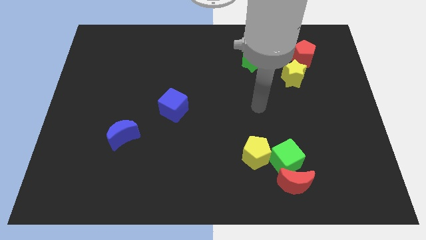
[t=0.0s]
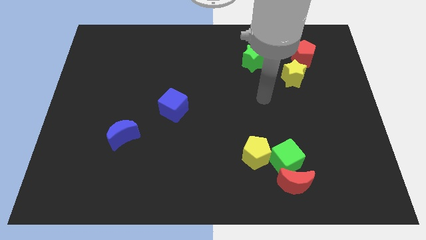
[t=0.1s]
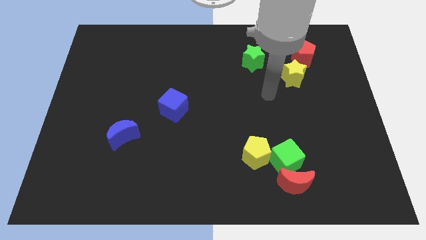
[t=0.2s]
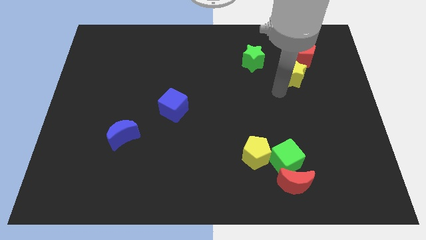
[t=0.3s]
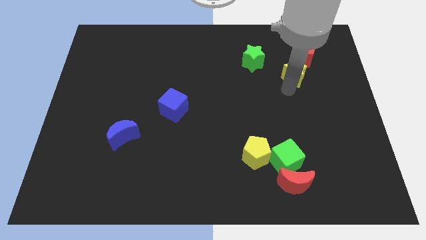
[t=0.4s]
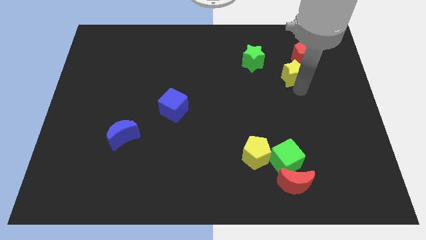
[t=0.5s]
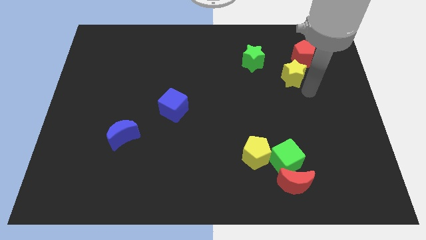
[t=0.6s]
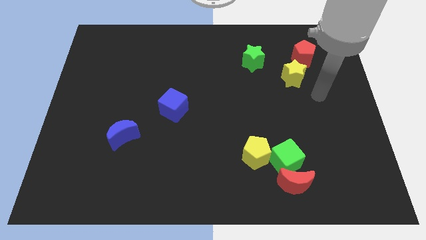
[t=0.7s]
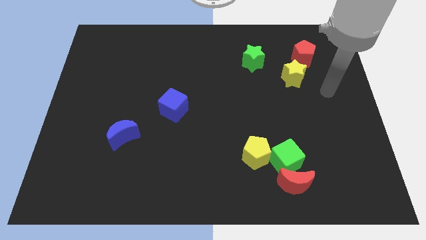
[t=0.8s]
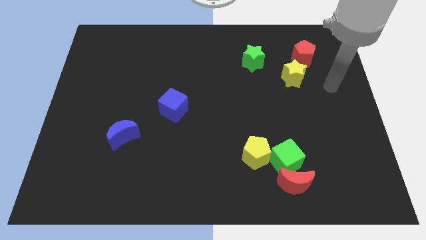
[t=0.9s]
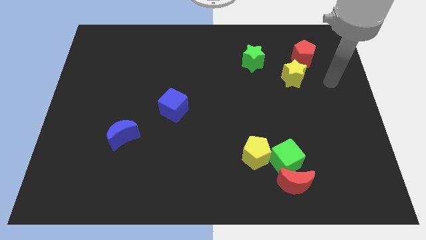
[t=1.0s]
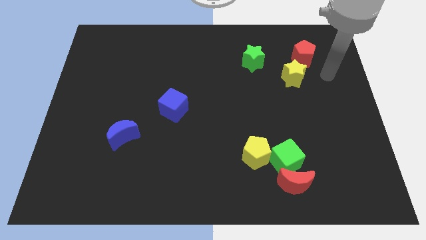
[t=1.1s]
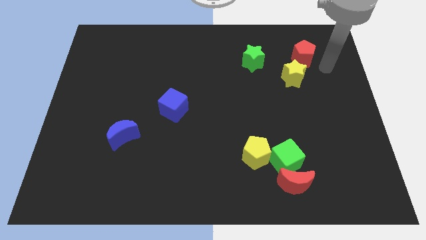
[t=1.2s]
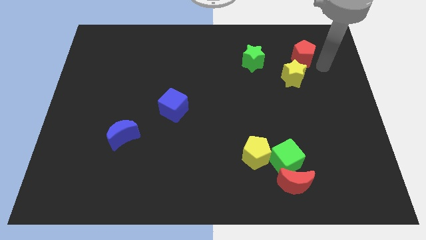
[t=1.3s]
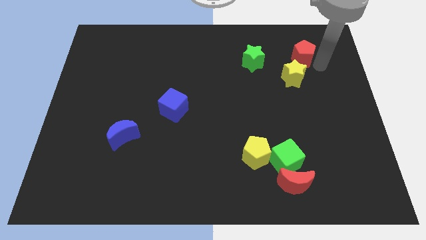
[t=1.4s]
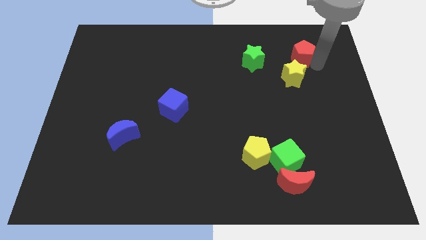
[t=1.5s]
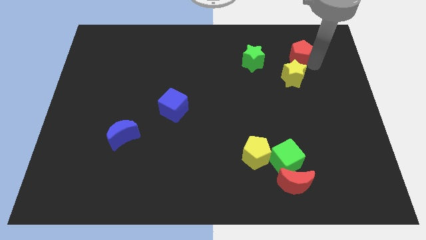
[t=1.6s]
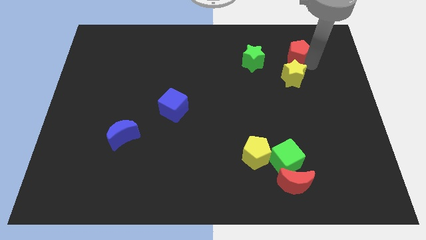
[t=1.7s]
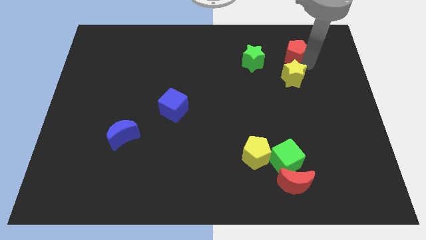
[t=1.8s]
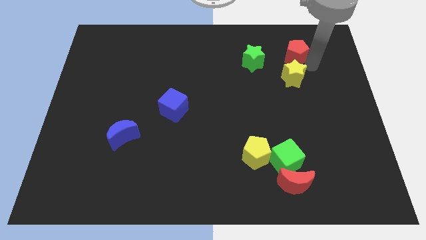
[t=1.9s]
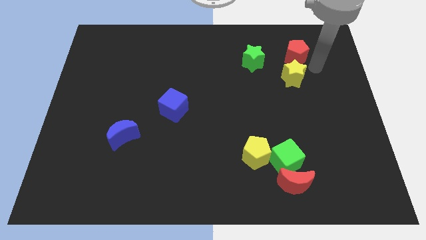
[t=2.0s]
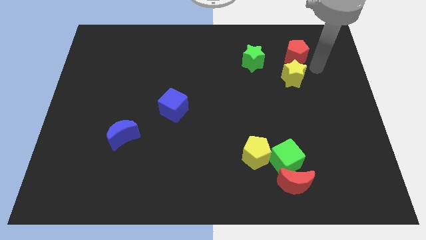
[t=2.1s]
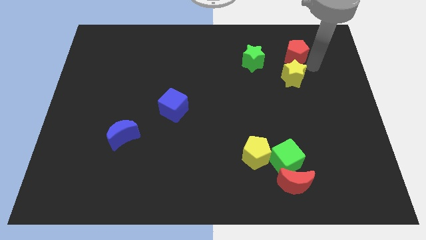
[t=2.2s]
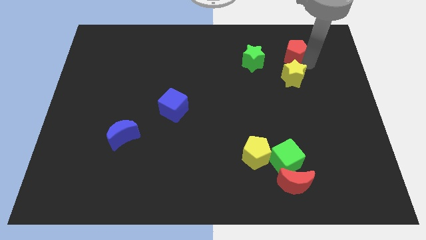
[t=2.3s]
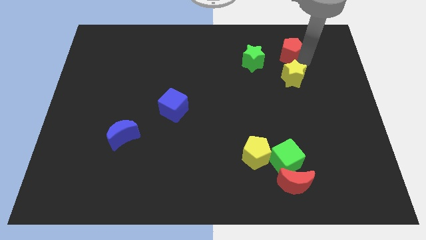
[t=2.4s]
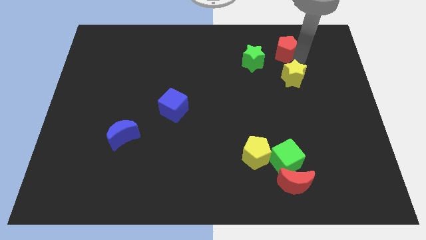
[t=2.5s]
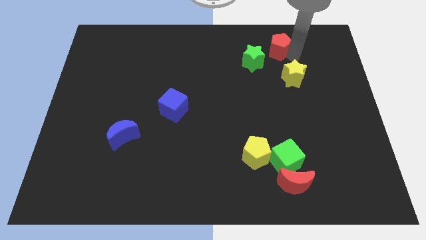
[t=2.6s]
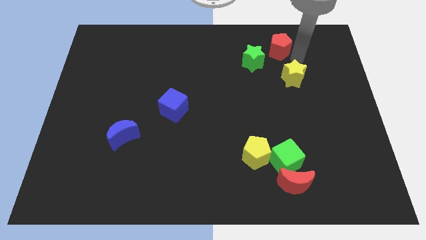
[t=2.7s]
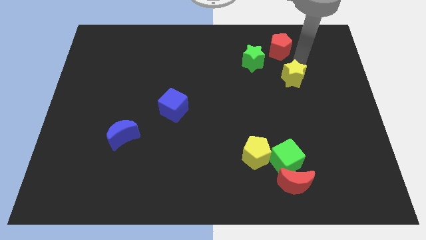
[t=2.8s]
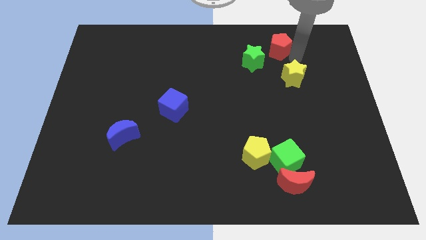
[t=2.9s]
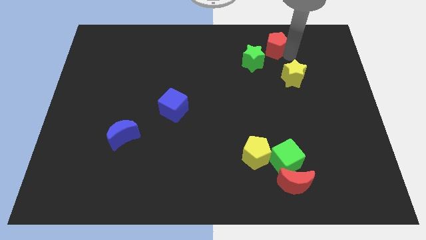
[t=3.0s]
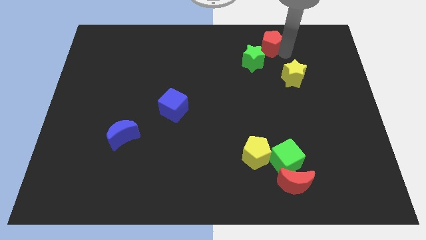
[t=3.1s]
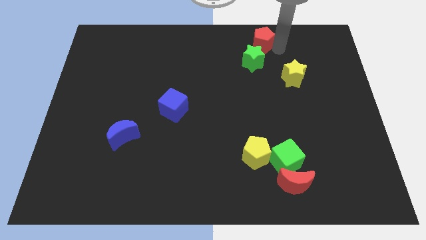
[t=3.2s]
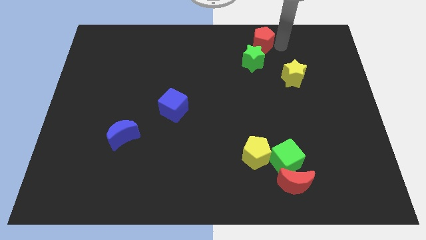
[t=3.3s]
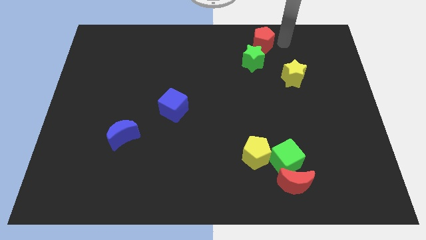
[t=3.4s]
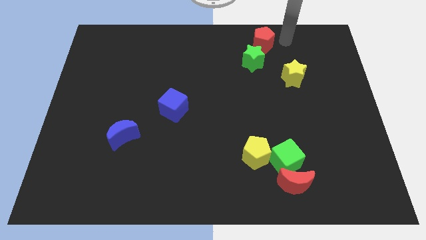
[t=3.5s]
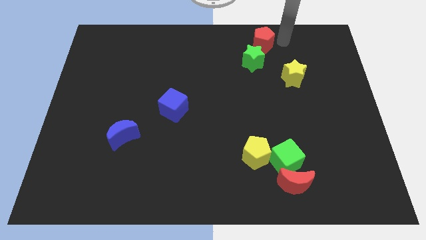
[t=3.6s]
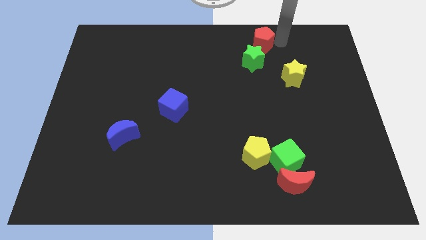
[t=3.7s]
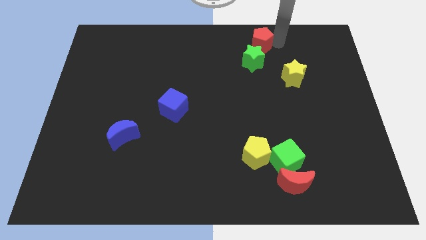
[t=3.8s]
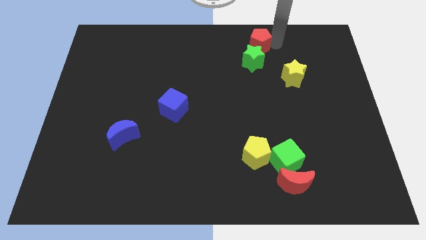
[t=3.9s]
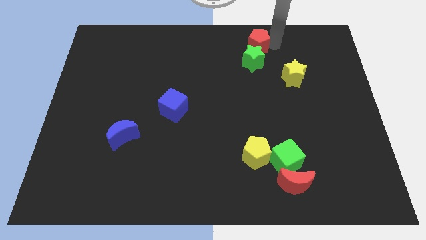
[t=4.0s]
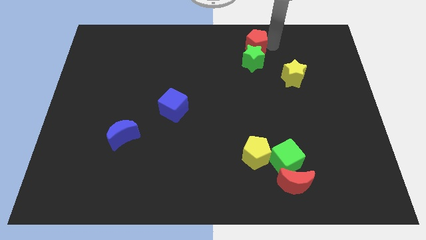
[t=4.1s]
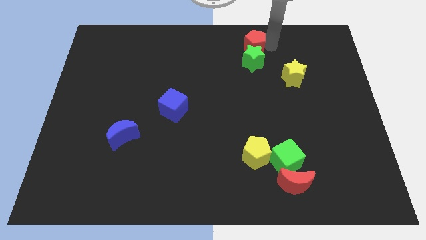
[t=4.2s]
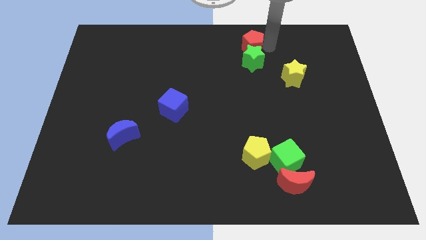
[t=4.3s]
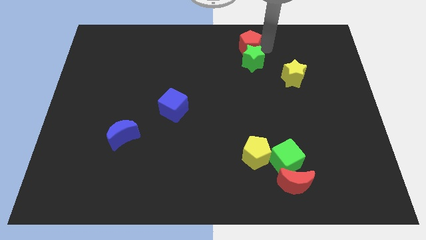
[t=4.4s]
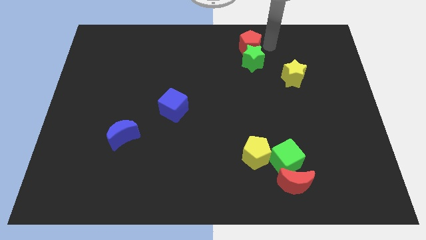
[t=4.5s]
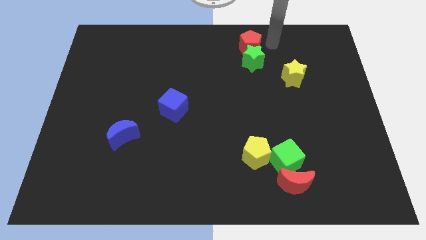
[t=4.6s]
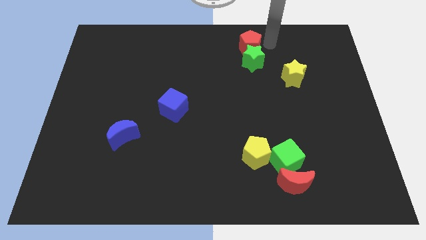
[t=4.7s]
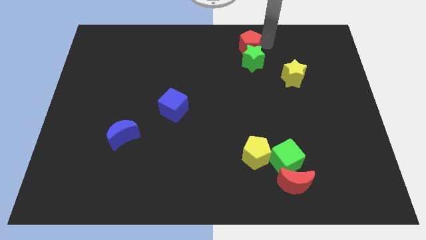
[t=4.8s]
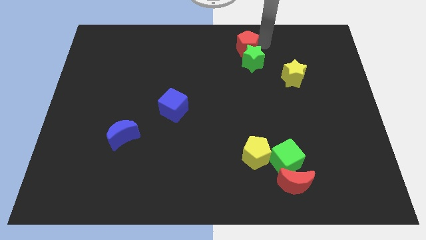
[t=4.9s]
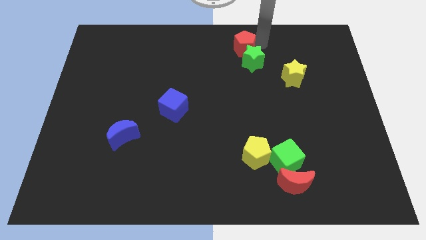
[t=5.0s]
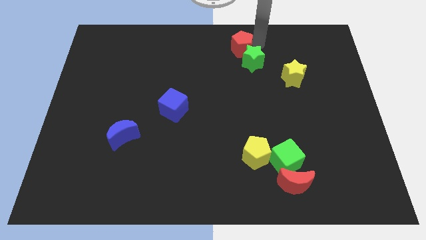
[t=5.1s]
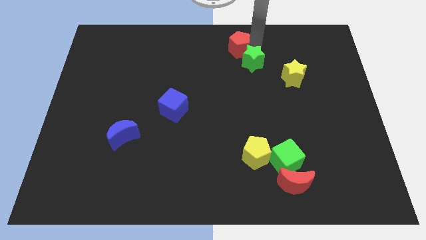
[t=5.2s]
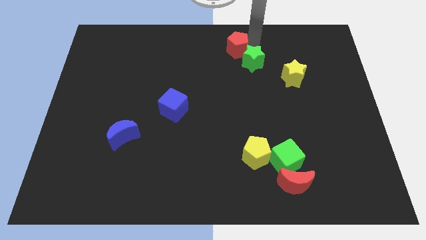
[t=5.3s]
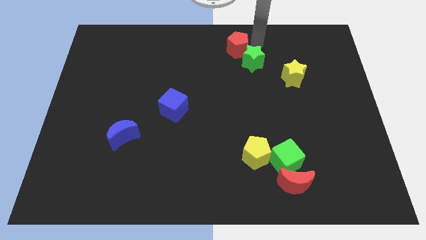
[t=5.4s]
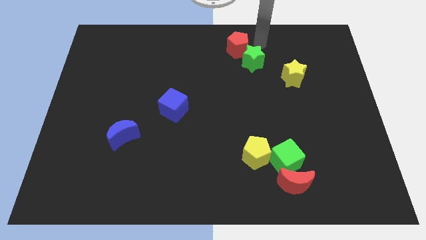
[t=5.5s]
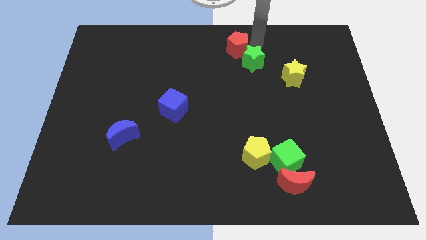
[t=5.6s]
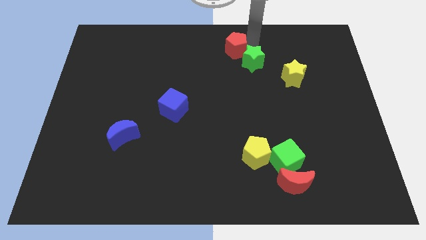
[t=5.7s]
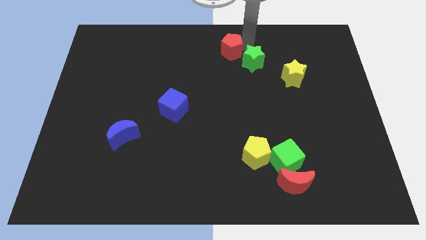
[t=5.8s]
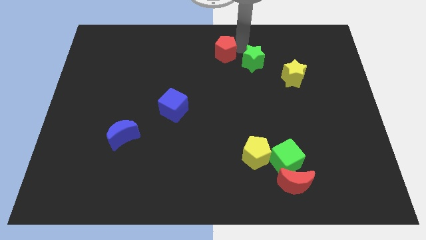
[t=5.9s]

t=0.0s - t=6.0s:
push the red pentagon left

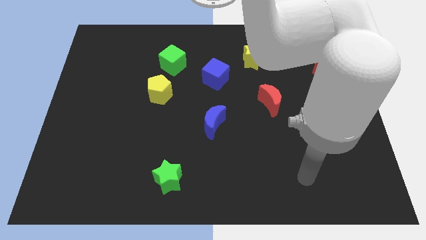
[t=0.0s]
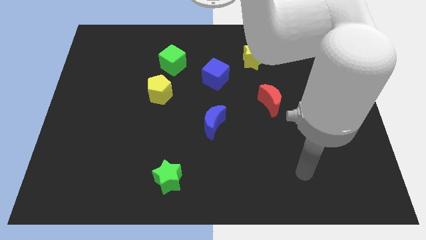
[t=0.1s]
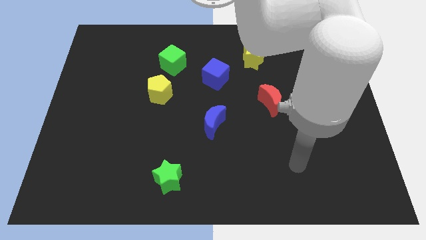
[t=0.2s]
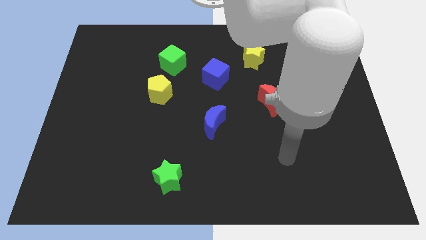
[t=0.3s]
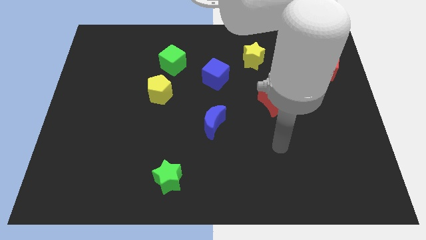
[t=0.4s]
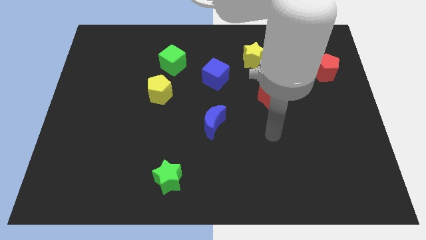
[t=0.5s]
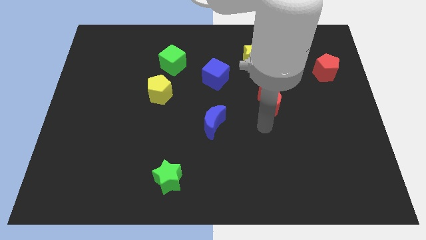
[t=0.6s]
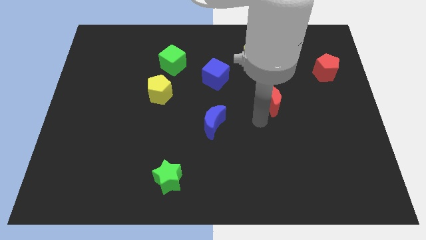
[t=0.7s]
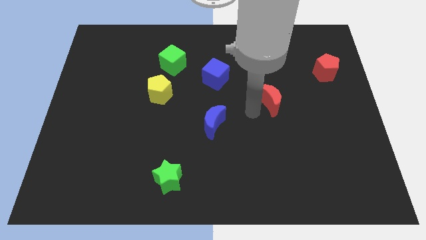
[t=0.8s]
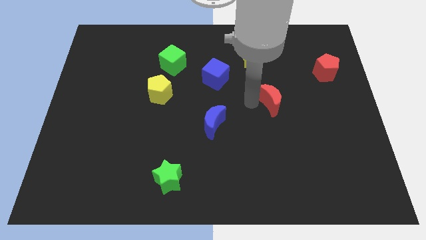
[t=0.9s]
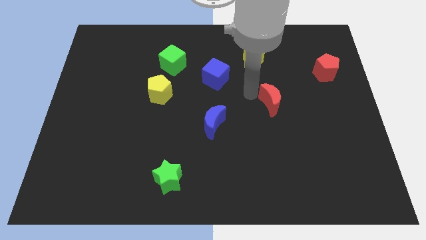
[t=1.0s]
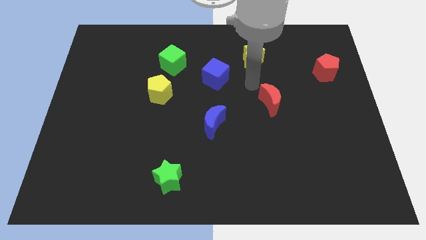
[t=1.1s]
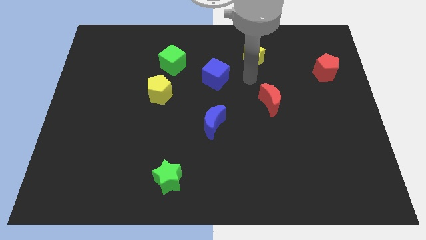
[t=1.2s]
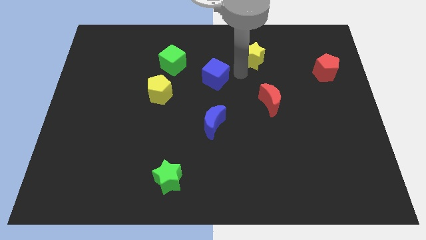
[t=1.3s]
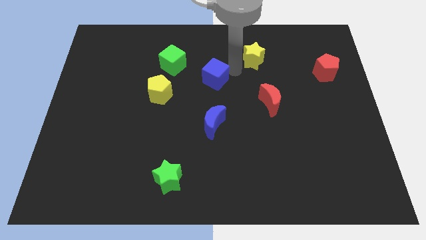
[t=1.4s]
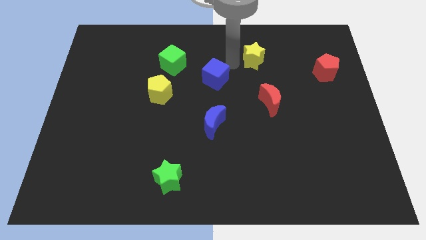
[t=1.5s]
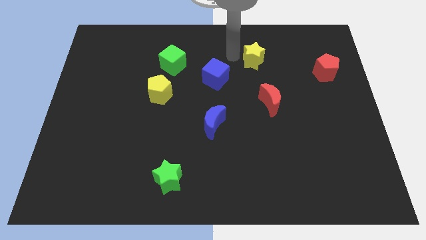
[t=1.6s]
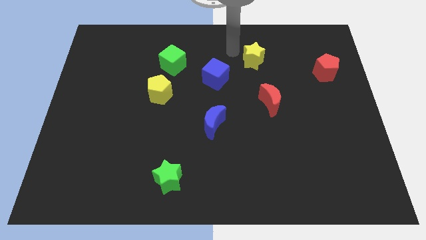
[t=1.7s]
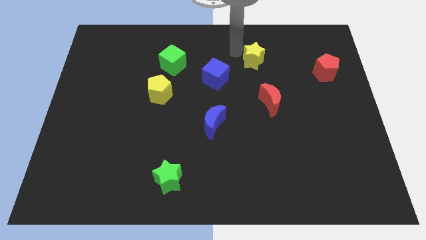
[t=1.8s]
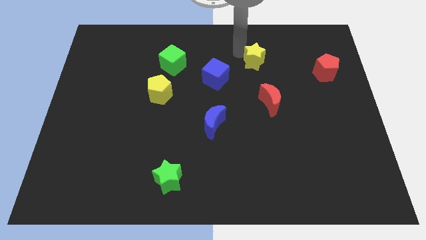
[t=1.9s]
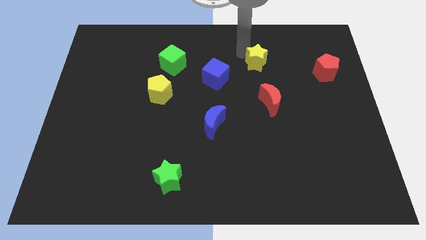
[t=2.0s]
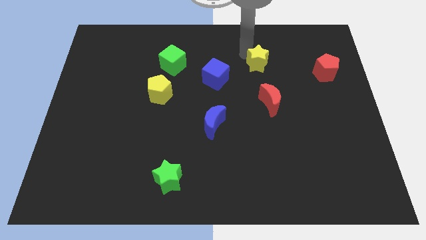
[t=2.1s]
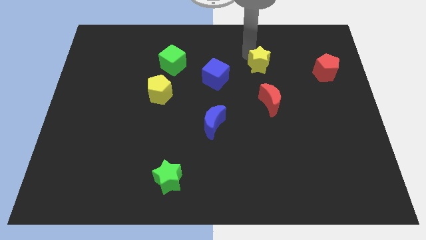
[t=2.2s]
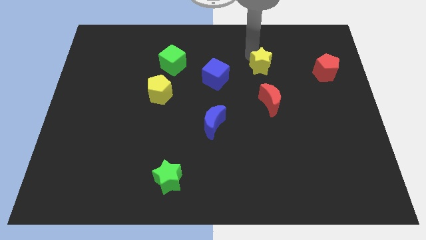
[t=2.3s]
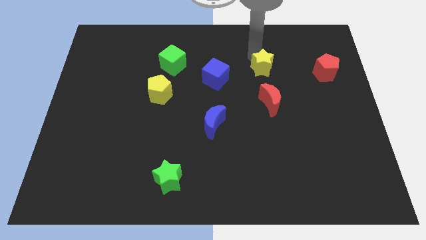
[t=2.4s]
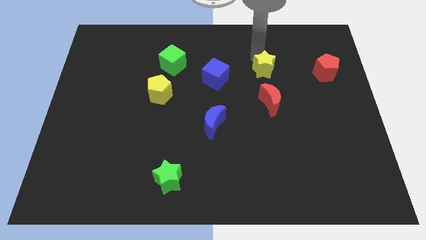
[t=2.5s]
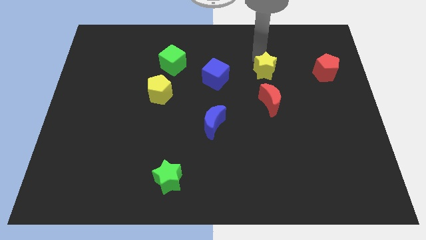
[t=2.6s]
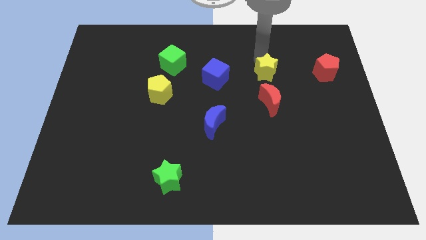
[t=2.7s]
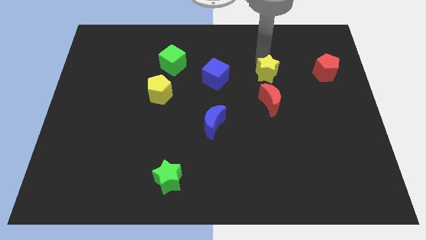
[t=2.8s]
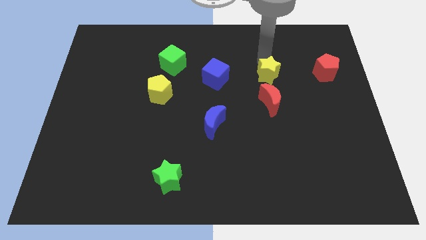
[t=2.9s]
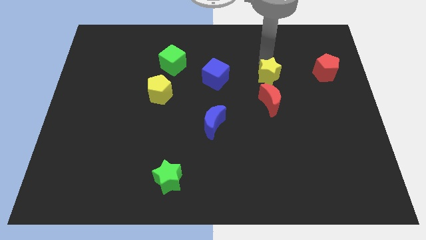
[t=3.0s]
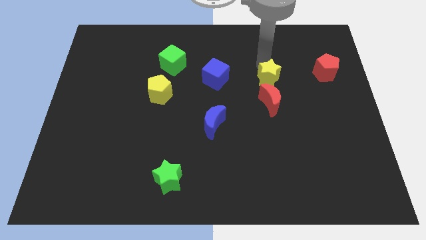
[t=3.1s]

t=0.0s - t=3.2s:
slightly push the yellow star downwards and to the right diagonally
